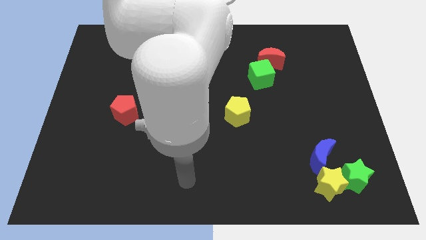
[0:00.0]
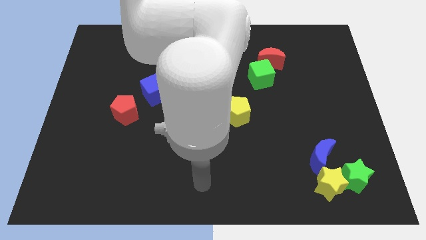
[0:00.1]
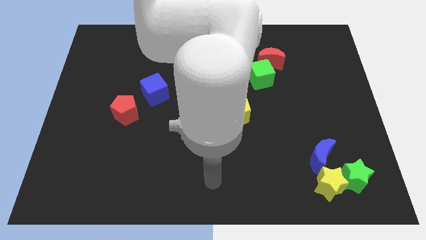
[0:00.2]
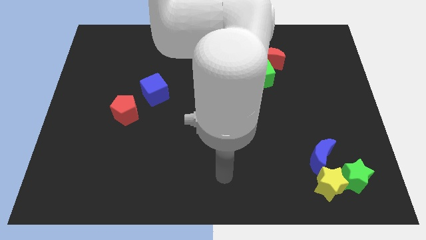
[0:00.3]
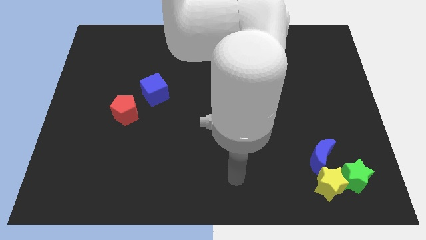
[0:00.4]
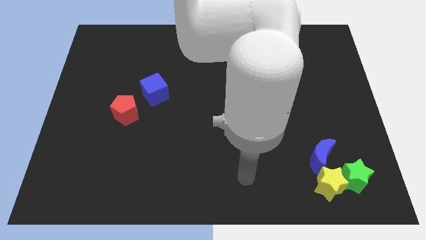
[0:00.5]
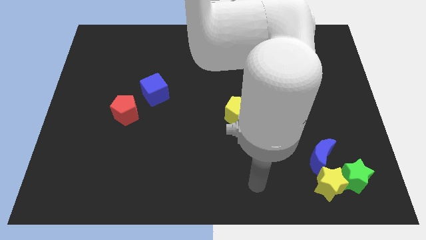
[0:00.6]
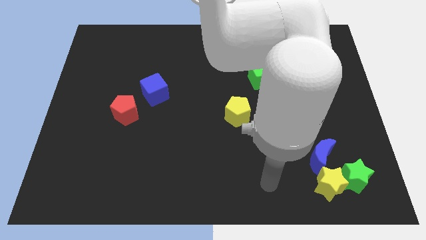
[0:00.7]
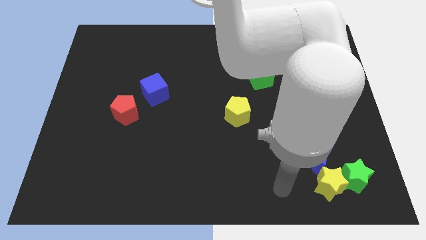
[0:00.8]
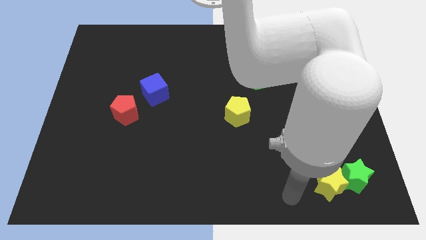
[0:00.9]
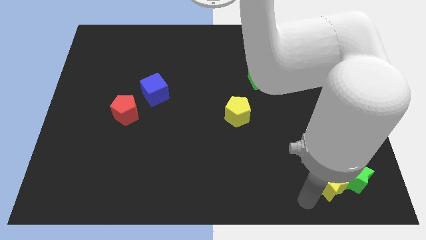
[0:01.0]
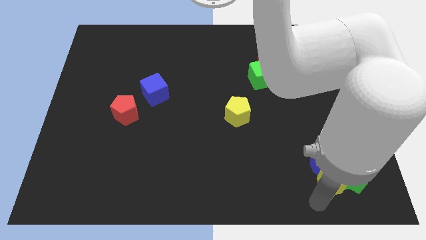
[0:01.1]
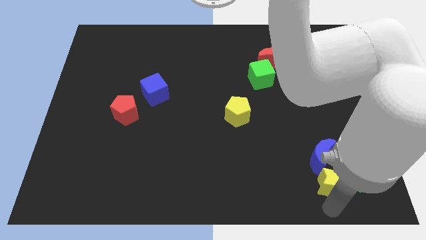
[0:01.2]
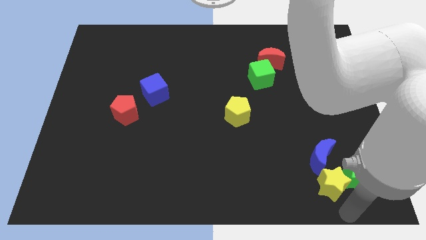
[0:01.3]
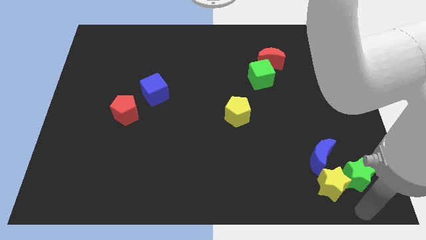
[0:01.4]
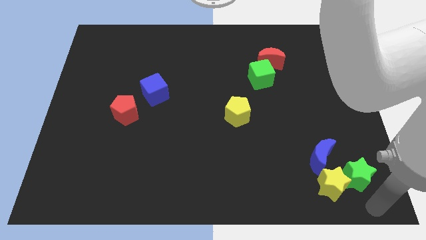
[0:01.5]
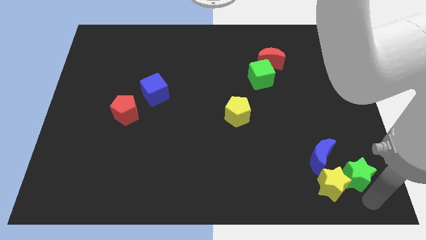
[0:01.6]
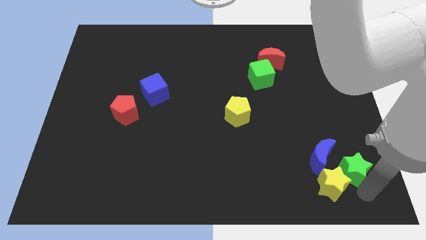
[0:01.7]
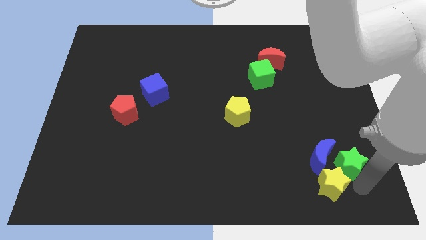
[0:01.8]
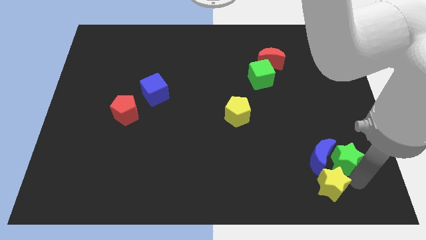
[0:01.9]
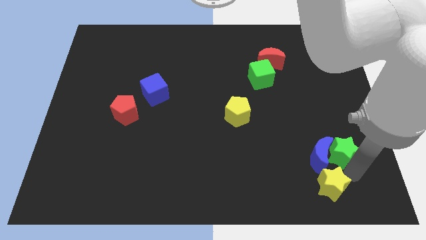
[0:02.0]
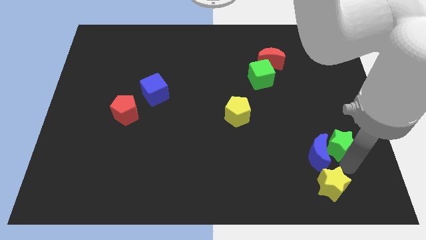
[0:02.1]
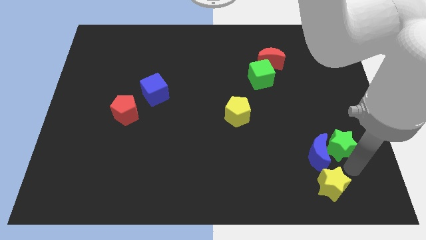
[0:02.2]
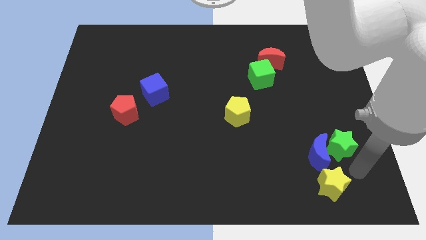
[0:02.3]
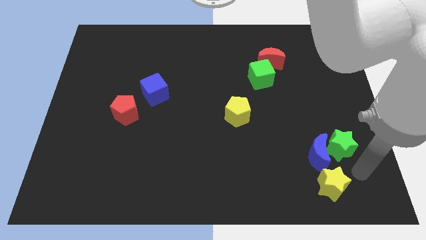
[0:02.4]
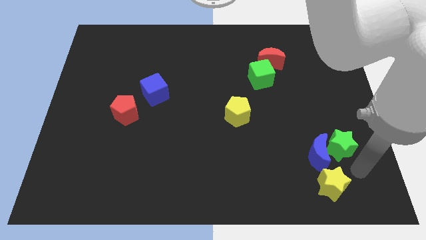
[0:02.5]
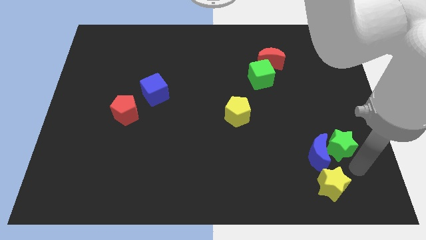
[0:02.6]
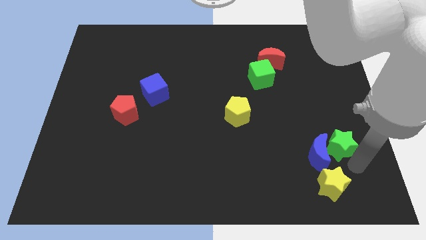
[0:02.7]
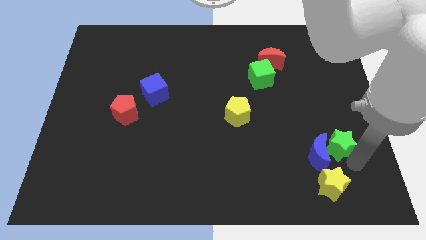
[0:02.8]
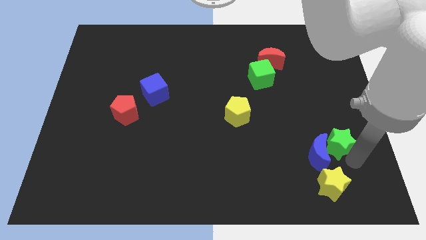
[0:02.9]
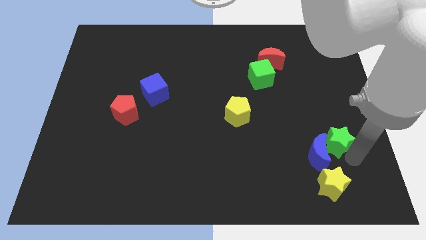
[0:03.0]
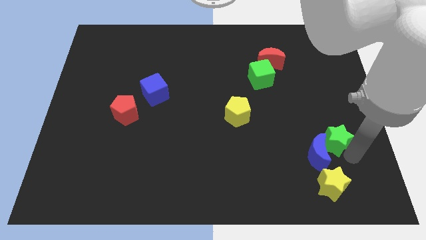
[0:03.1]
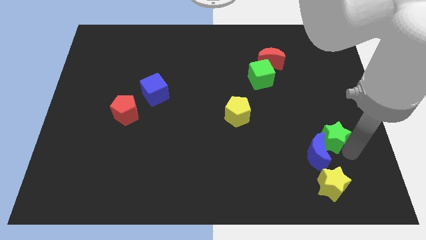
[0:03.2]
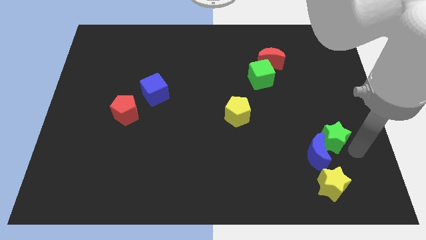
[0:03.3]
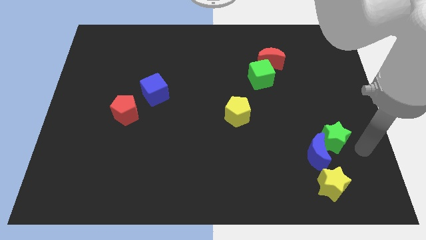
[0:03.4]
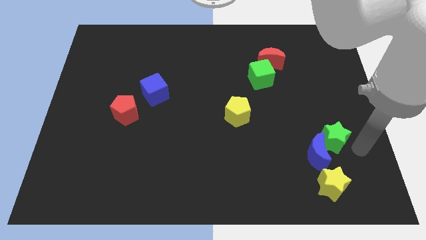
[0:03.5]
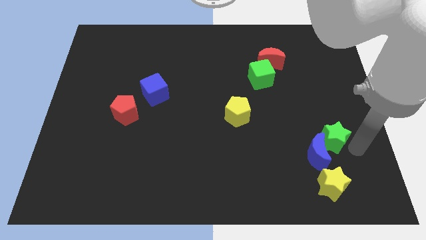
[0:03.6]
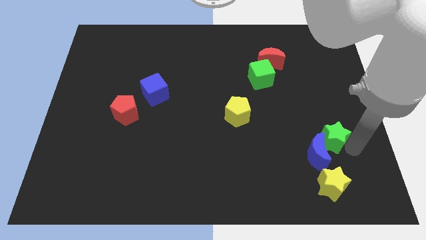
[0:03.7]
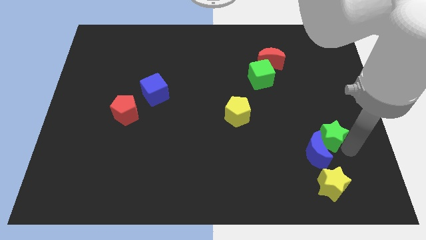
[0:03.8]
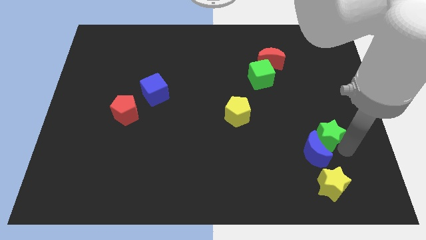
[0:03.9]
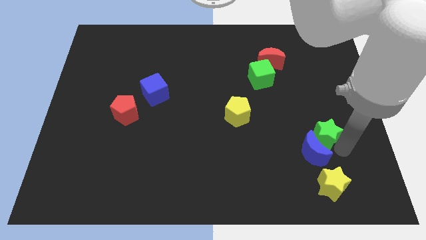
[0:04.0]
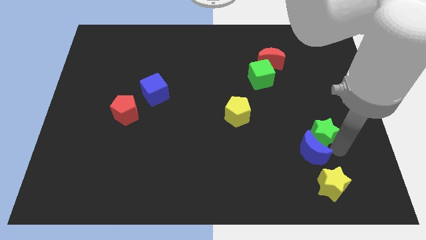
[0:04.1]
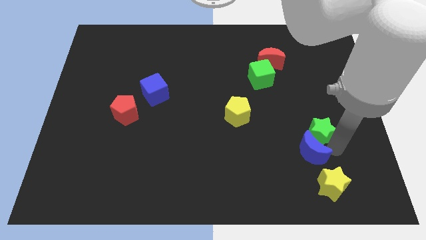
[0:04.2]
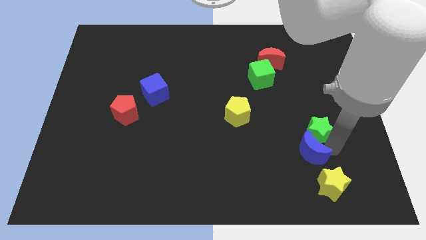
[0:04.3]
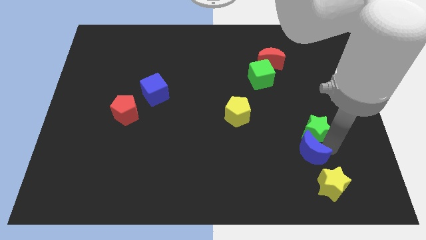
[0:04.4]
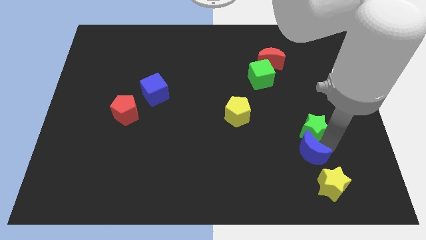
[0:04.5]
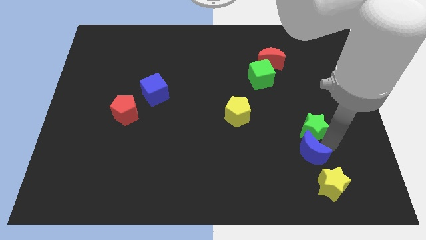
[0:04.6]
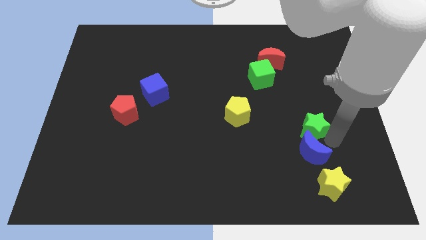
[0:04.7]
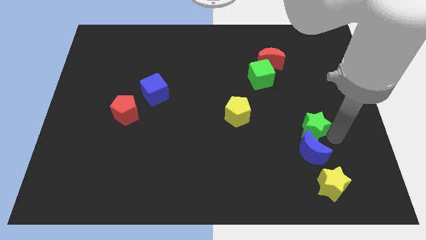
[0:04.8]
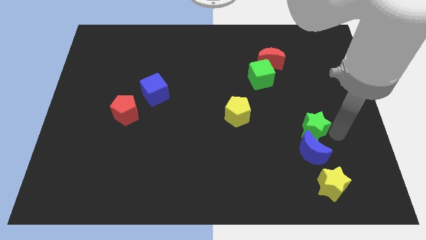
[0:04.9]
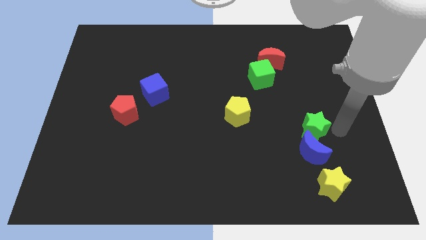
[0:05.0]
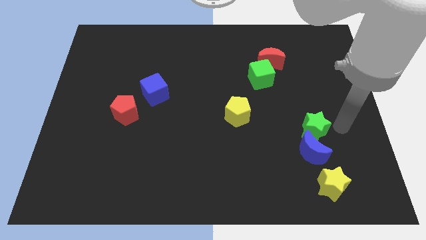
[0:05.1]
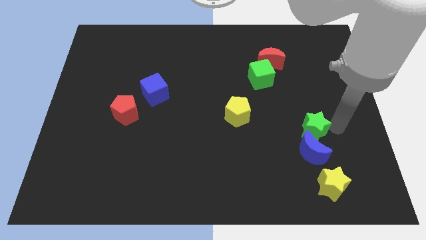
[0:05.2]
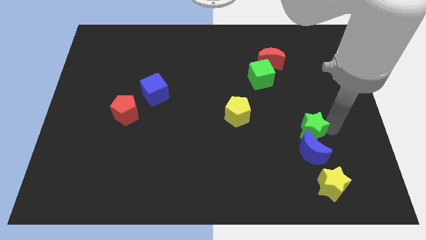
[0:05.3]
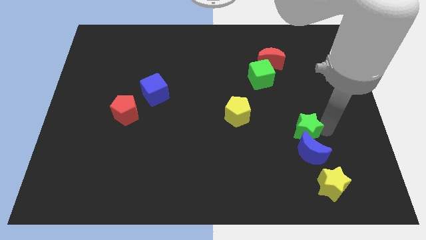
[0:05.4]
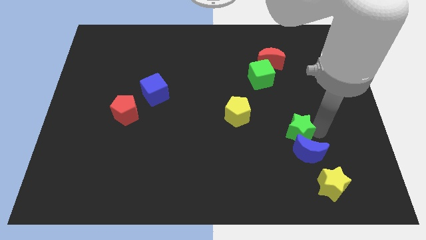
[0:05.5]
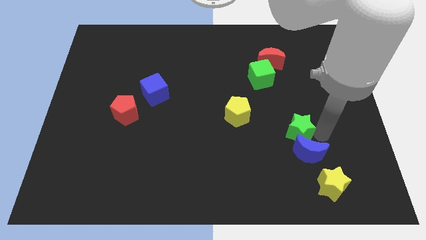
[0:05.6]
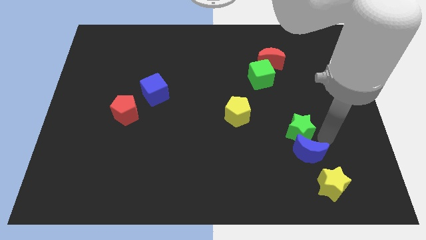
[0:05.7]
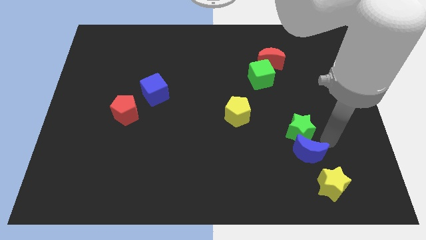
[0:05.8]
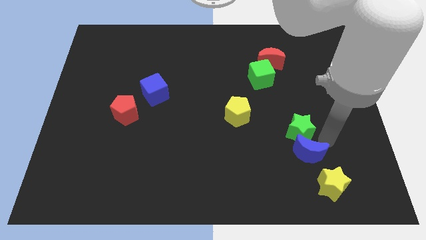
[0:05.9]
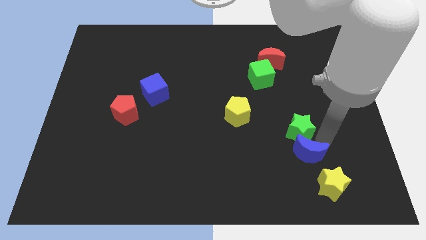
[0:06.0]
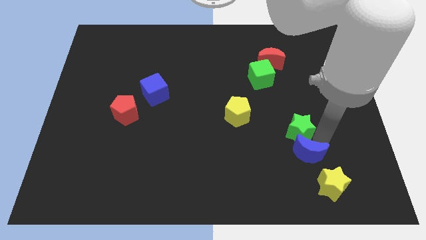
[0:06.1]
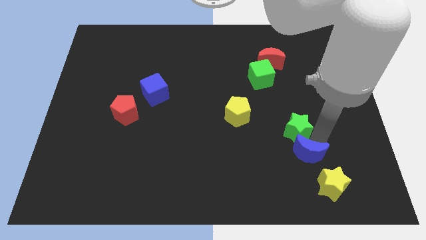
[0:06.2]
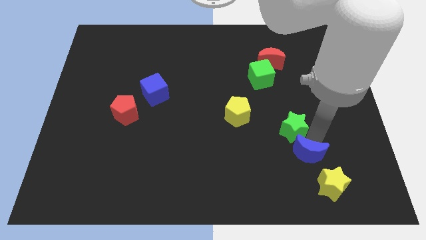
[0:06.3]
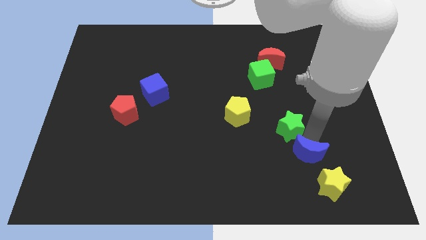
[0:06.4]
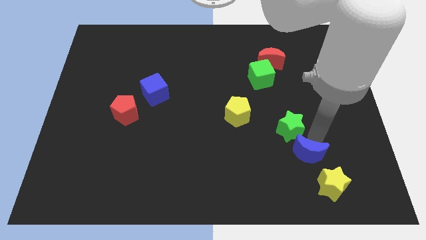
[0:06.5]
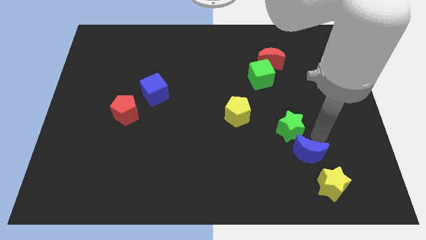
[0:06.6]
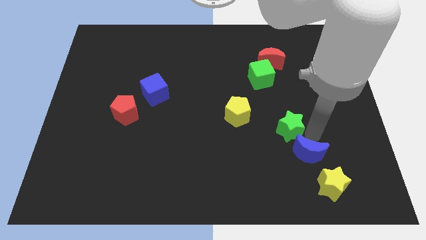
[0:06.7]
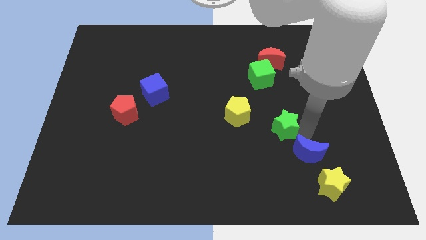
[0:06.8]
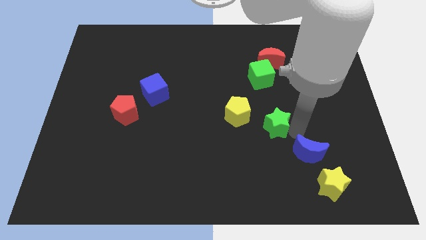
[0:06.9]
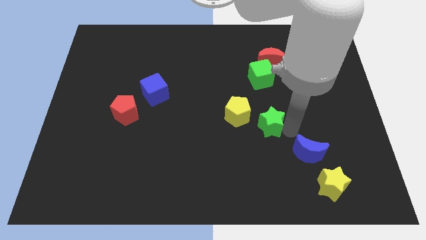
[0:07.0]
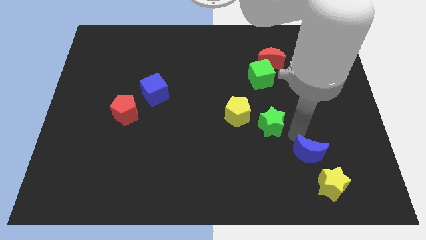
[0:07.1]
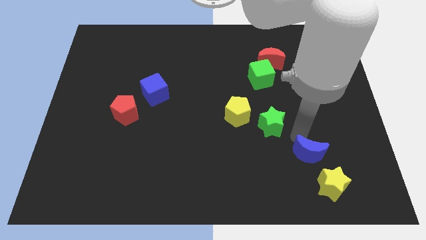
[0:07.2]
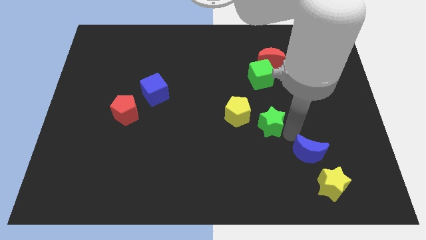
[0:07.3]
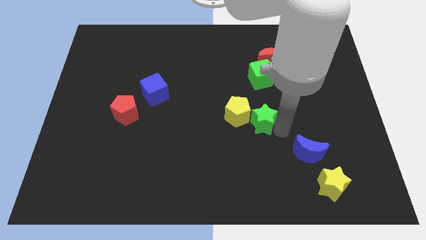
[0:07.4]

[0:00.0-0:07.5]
push the green star to the yellow pentagon
